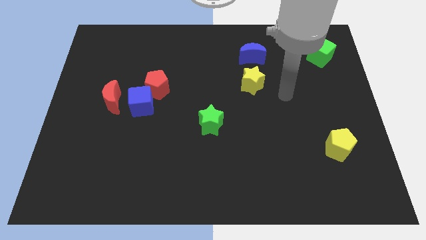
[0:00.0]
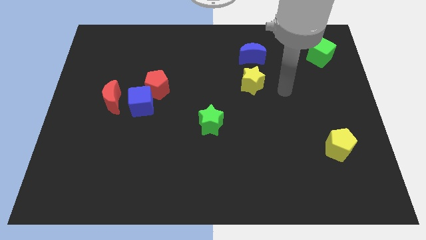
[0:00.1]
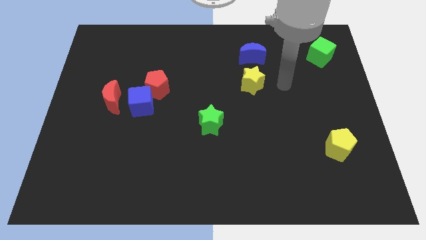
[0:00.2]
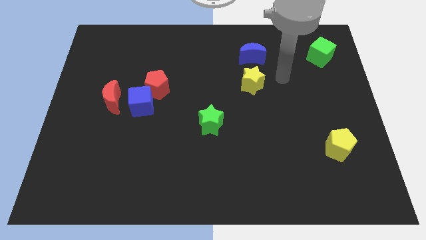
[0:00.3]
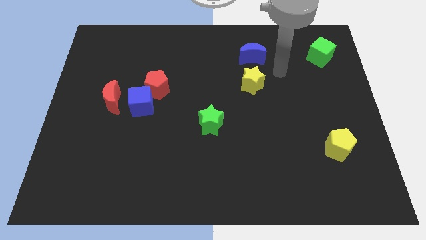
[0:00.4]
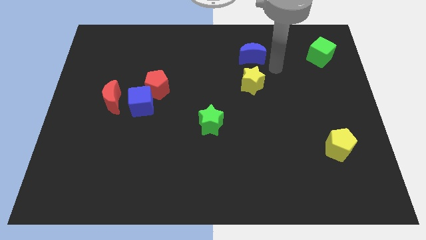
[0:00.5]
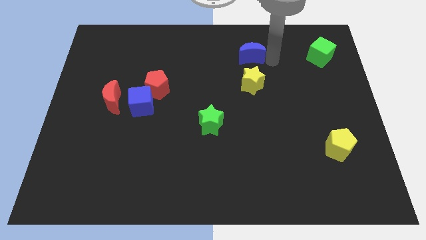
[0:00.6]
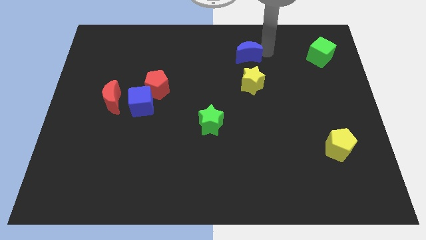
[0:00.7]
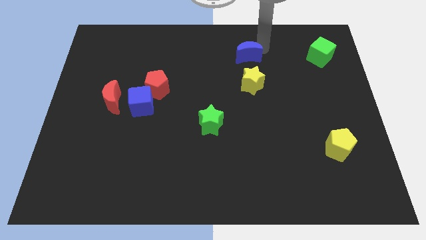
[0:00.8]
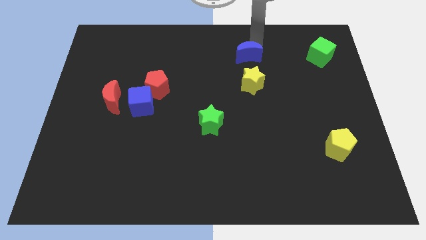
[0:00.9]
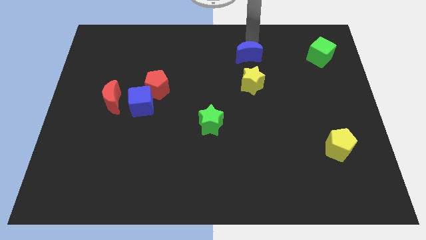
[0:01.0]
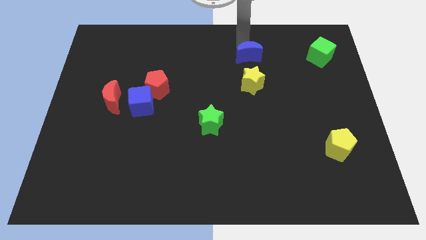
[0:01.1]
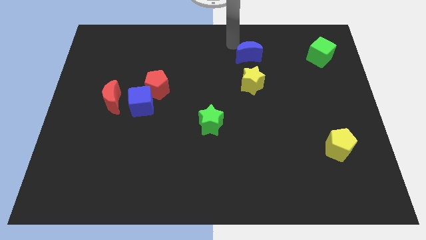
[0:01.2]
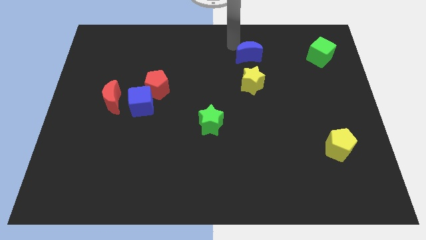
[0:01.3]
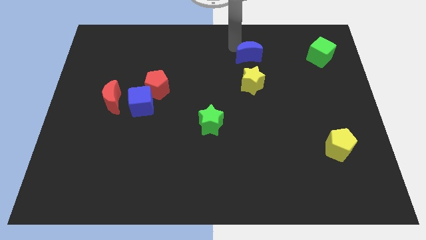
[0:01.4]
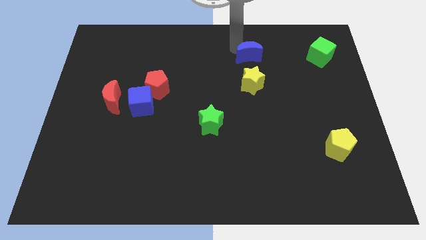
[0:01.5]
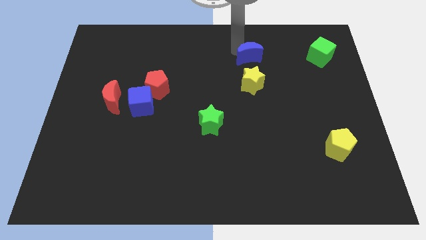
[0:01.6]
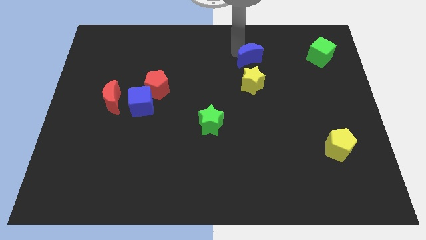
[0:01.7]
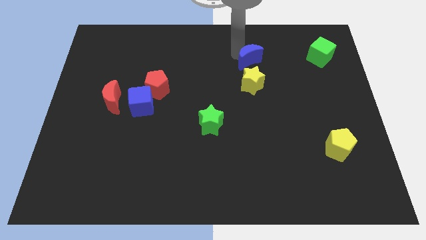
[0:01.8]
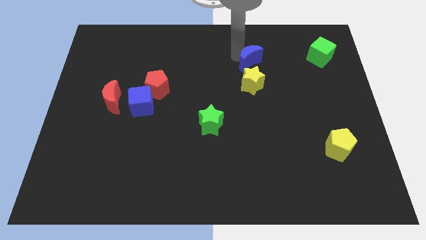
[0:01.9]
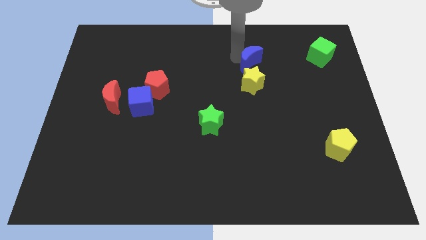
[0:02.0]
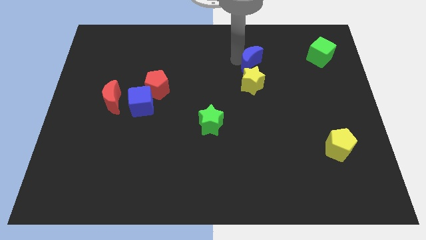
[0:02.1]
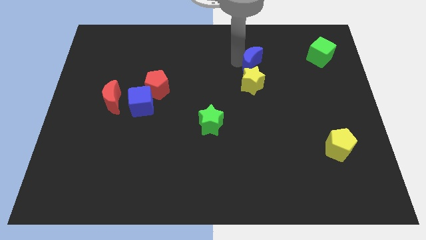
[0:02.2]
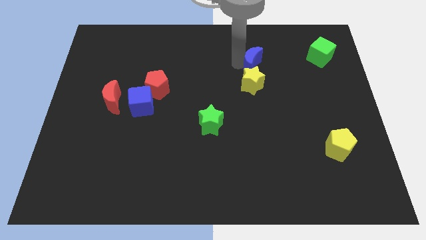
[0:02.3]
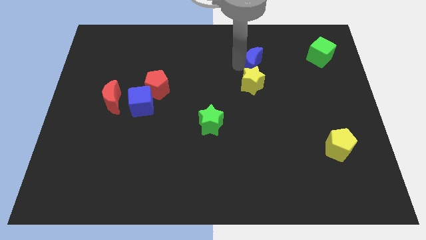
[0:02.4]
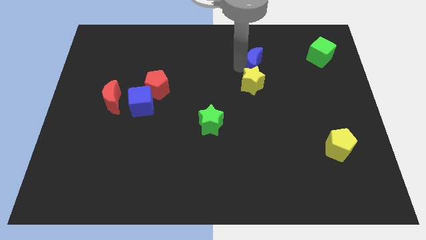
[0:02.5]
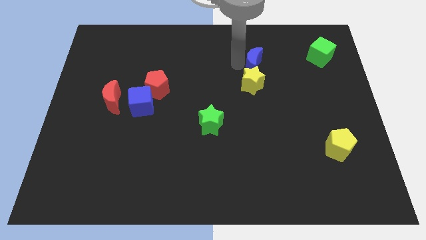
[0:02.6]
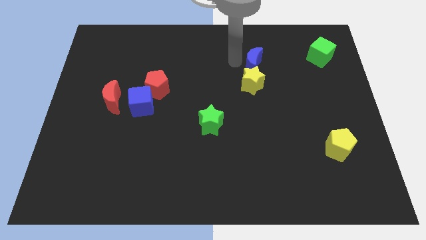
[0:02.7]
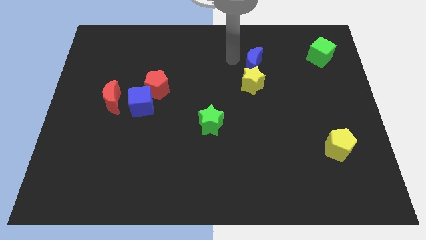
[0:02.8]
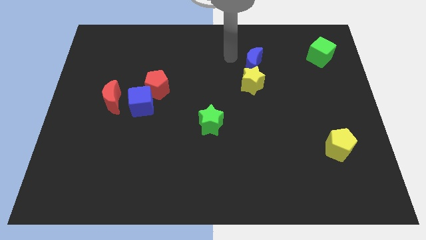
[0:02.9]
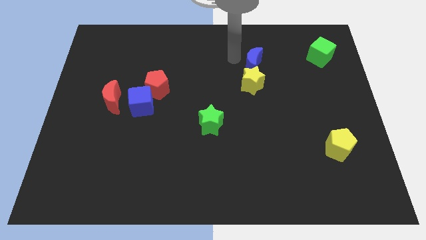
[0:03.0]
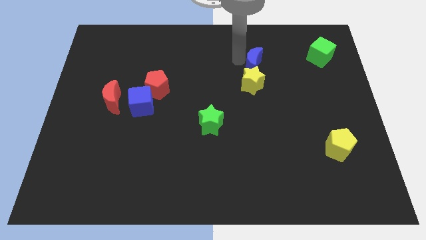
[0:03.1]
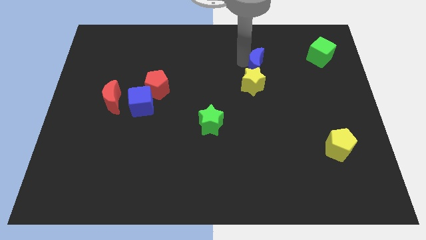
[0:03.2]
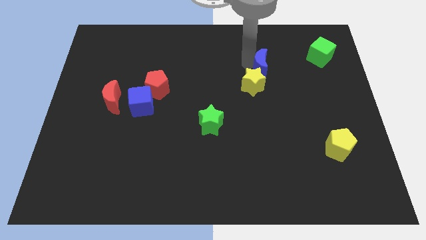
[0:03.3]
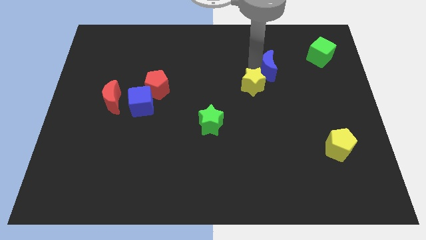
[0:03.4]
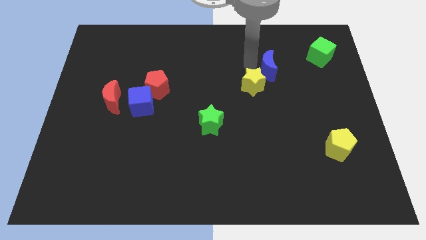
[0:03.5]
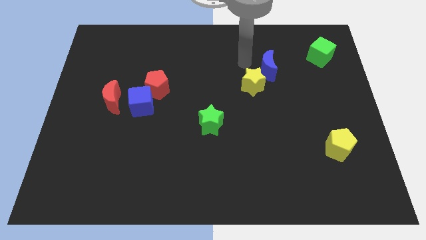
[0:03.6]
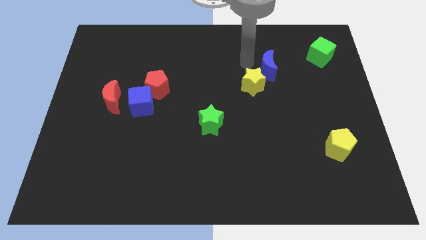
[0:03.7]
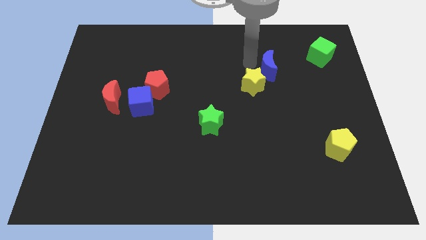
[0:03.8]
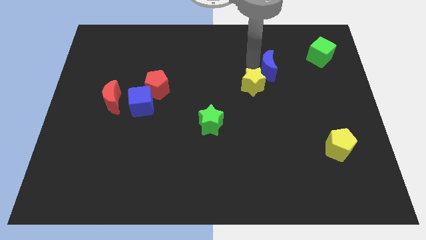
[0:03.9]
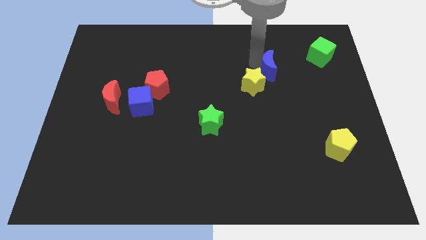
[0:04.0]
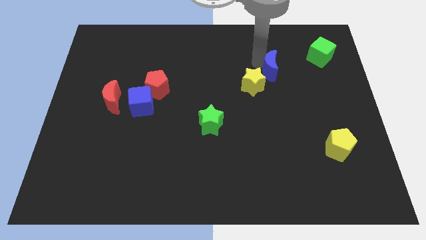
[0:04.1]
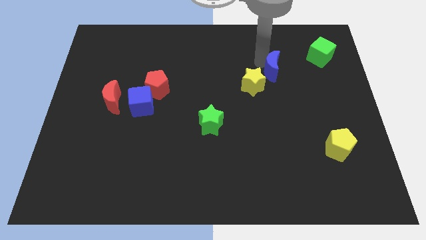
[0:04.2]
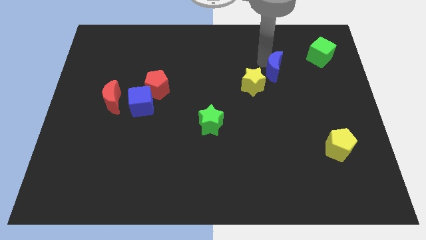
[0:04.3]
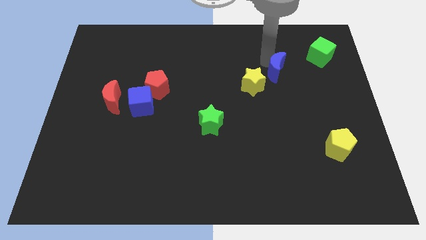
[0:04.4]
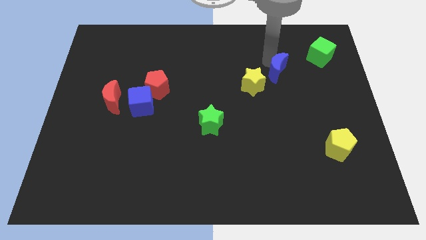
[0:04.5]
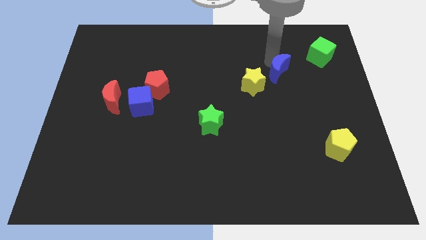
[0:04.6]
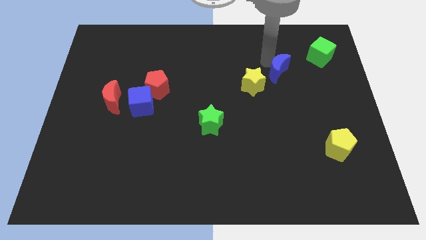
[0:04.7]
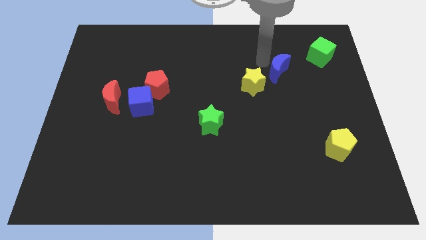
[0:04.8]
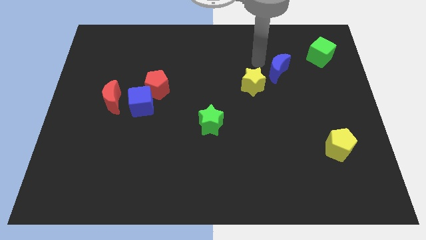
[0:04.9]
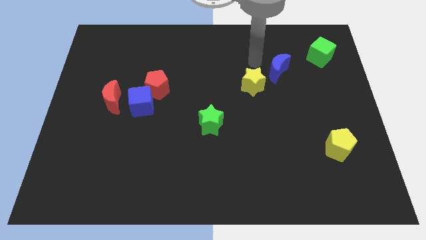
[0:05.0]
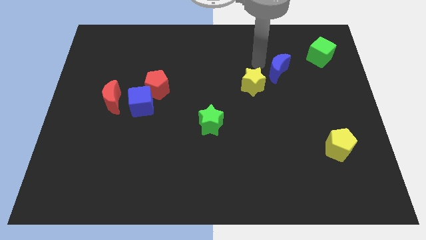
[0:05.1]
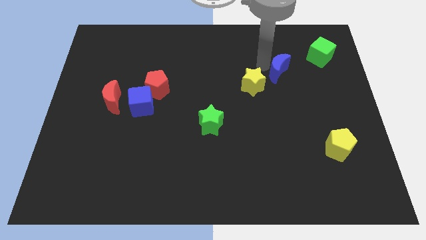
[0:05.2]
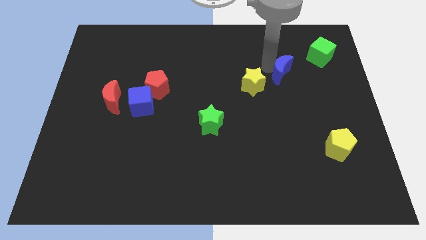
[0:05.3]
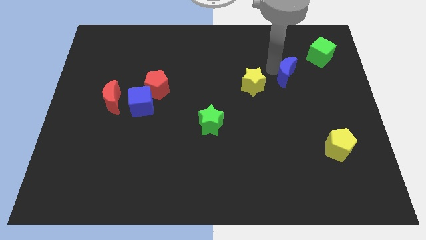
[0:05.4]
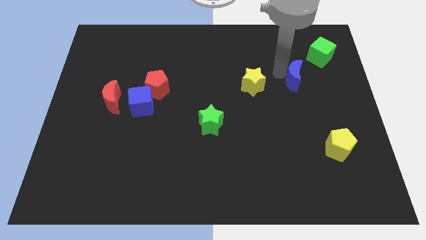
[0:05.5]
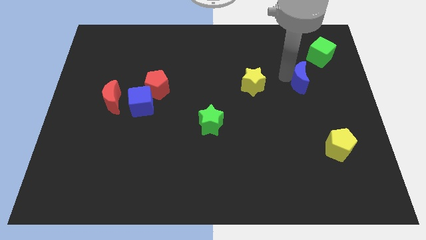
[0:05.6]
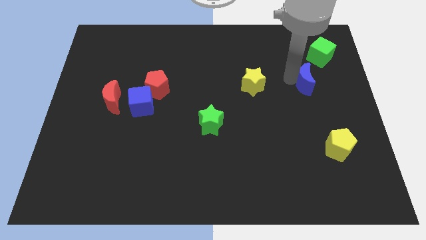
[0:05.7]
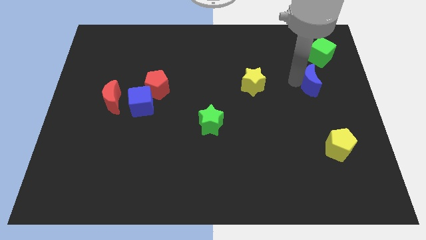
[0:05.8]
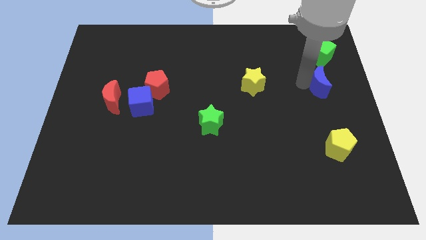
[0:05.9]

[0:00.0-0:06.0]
put the blue moon to the center right

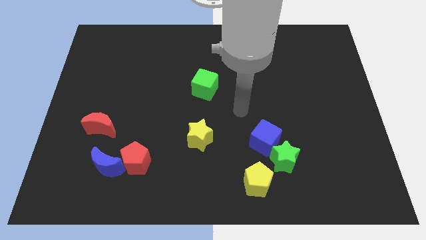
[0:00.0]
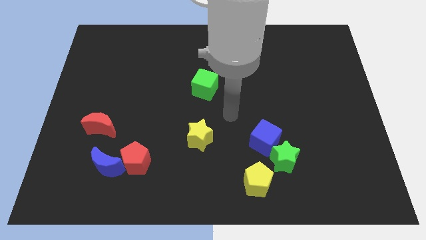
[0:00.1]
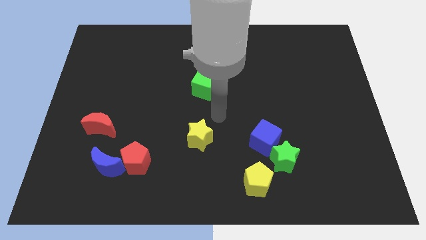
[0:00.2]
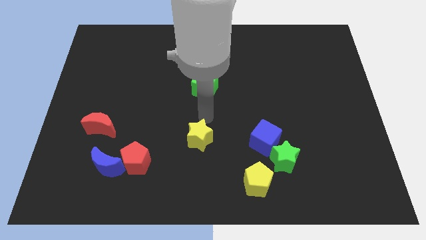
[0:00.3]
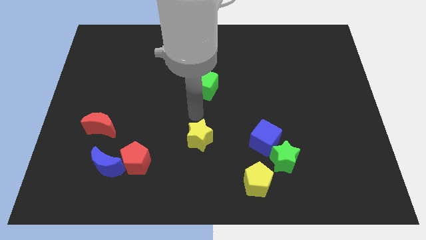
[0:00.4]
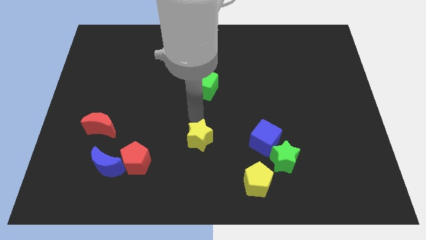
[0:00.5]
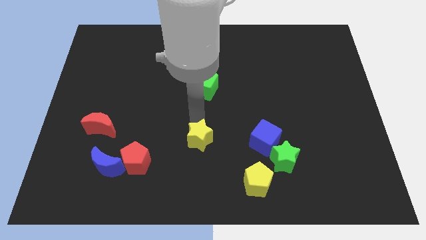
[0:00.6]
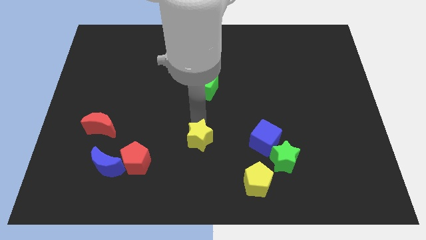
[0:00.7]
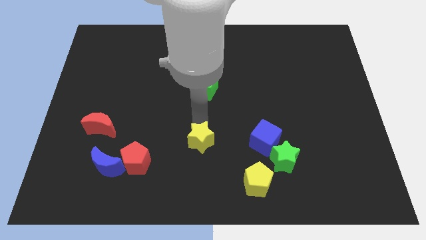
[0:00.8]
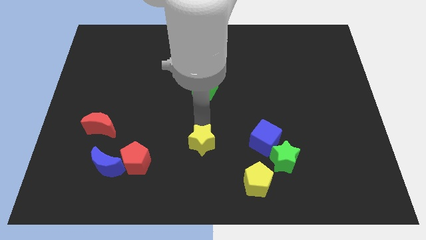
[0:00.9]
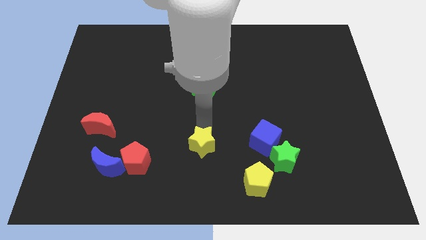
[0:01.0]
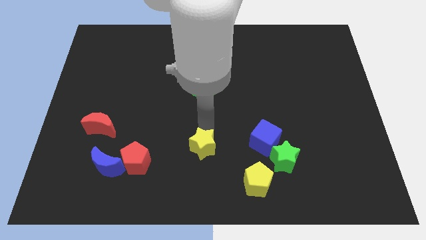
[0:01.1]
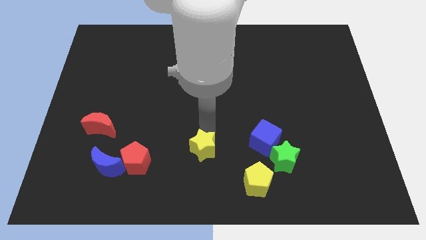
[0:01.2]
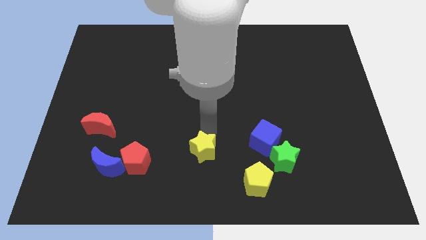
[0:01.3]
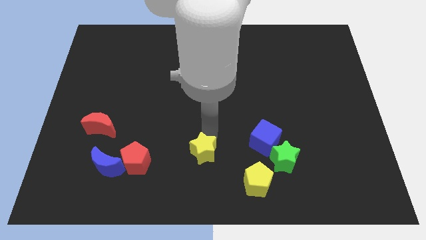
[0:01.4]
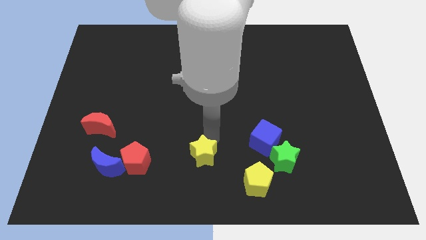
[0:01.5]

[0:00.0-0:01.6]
move the yellow star to the bottom side
